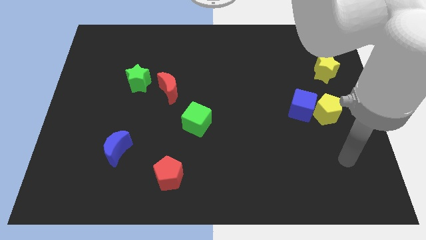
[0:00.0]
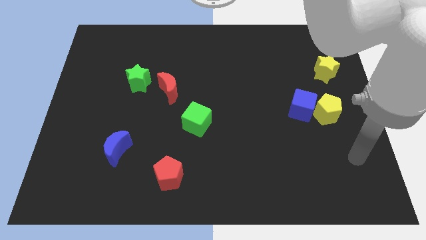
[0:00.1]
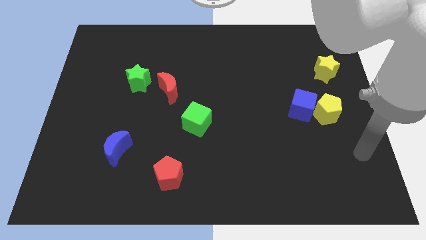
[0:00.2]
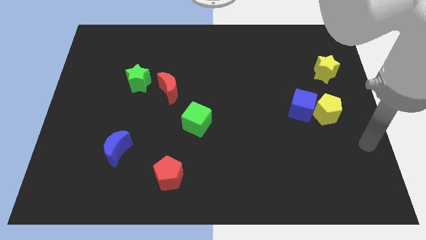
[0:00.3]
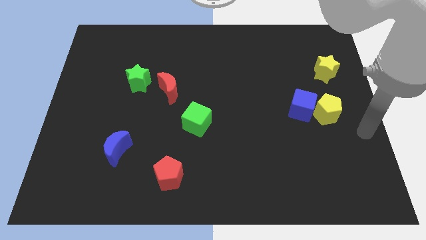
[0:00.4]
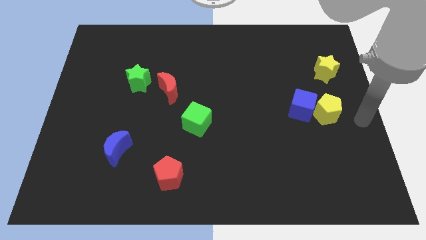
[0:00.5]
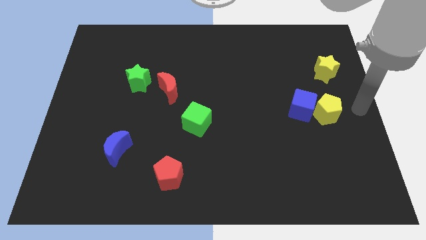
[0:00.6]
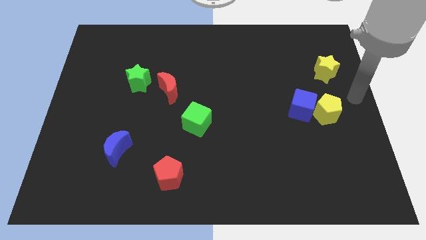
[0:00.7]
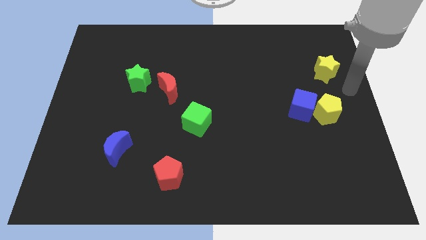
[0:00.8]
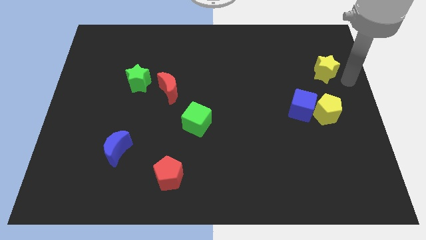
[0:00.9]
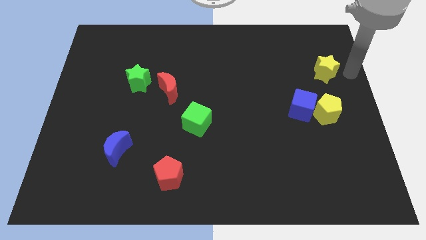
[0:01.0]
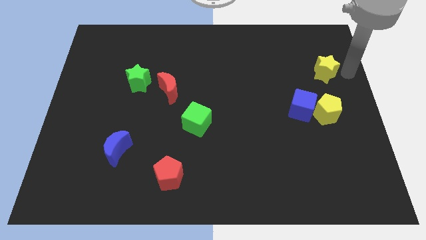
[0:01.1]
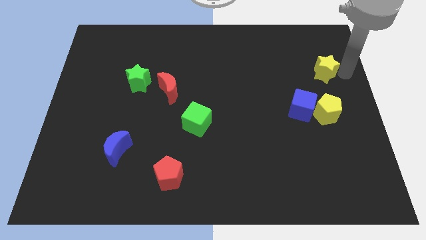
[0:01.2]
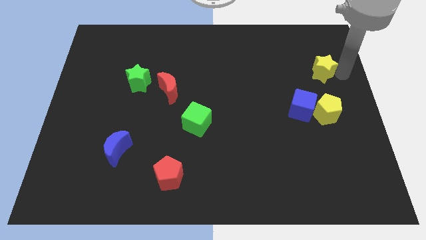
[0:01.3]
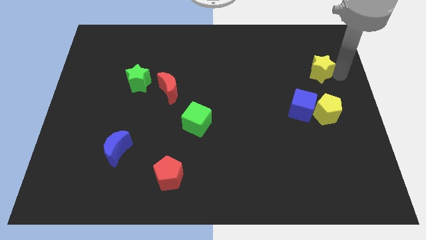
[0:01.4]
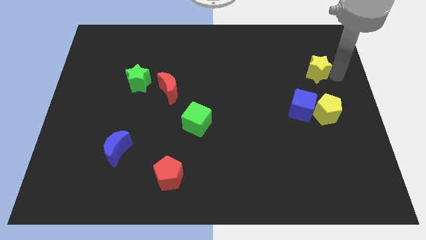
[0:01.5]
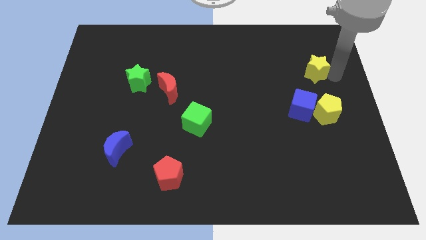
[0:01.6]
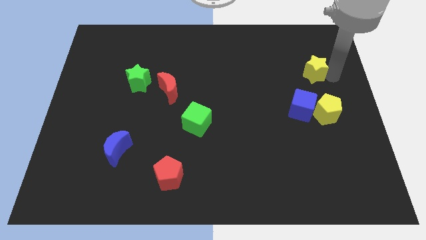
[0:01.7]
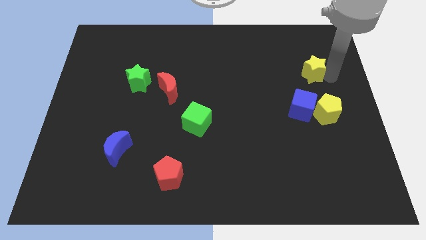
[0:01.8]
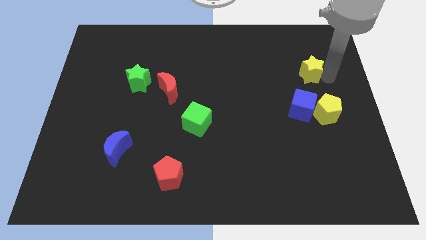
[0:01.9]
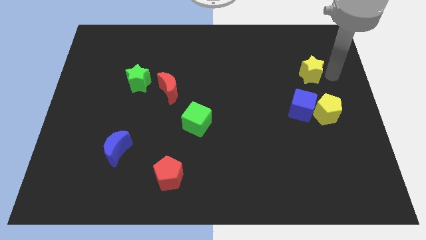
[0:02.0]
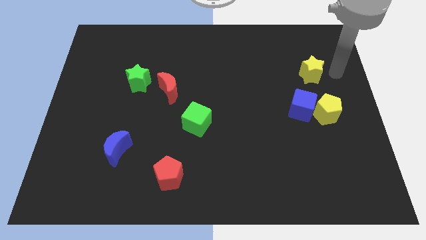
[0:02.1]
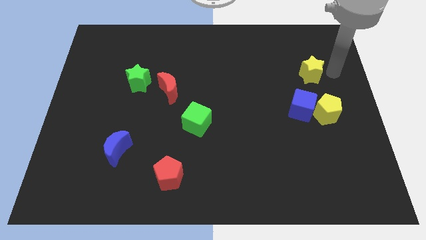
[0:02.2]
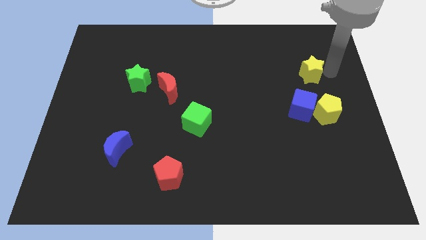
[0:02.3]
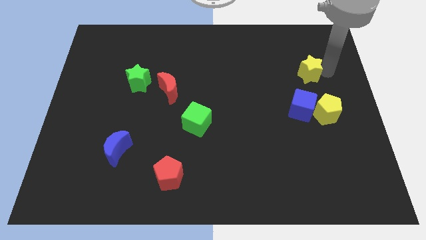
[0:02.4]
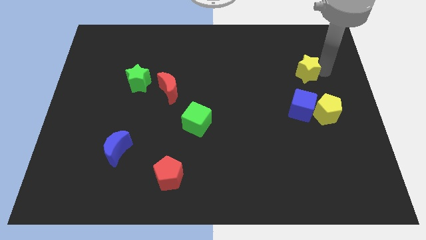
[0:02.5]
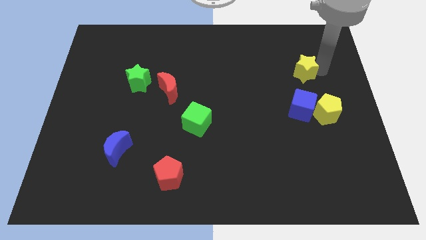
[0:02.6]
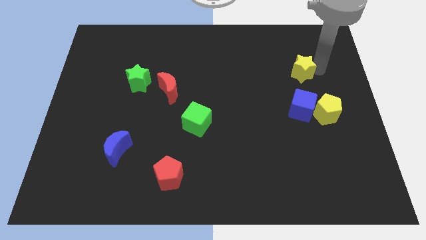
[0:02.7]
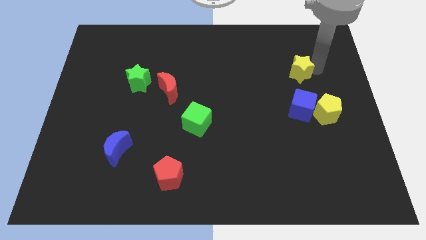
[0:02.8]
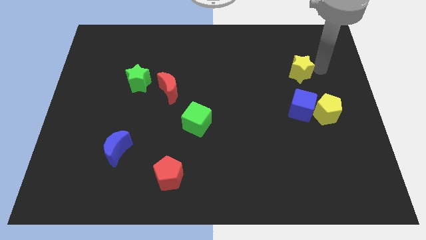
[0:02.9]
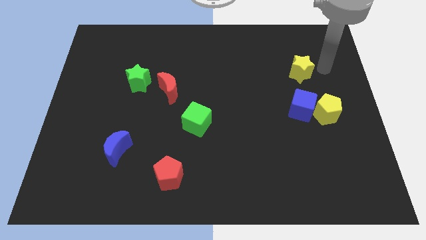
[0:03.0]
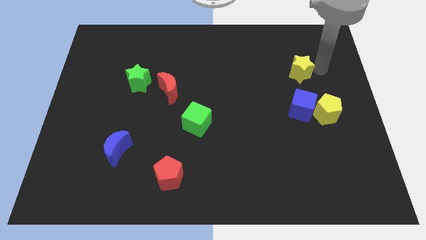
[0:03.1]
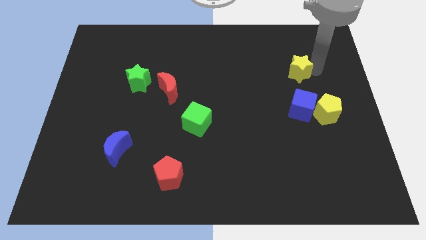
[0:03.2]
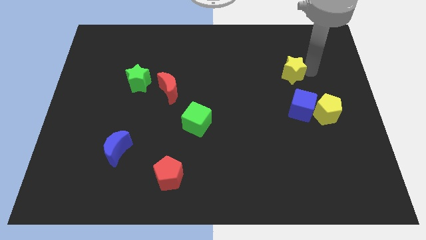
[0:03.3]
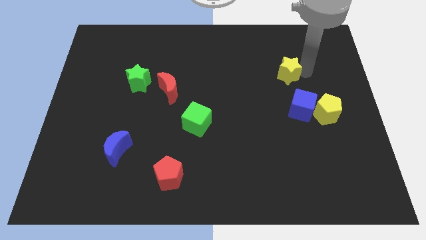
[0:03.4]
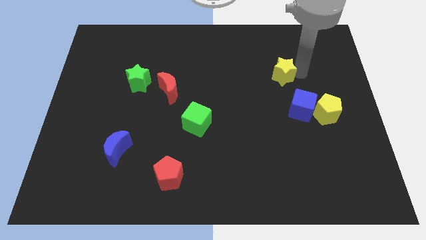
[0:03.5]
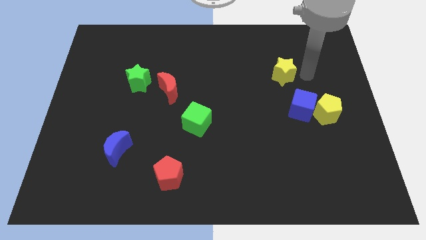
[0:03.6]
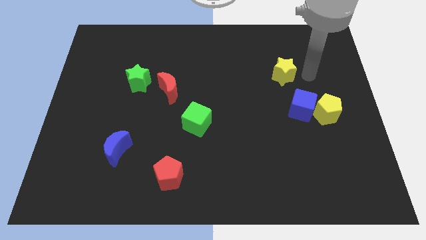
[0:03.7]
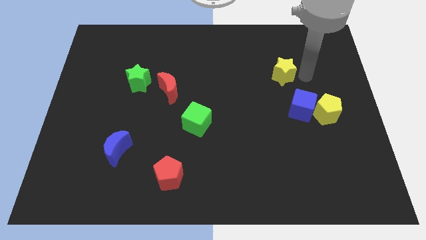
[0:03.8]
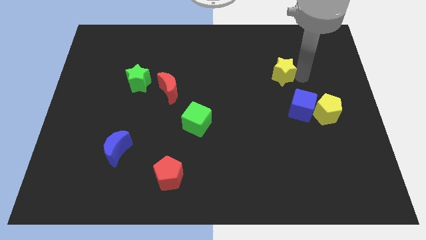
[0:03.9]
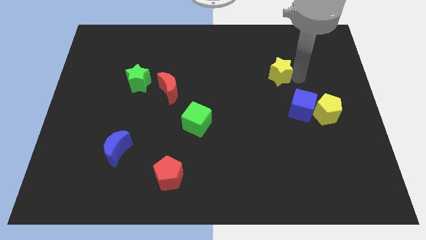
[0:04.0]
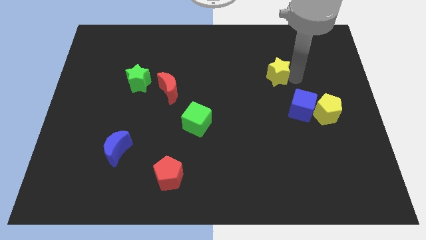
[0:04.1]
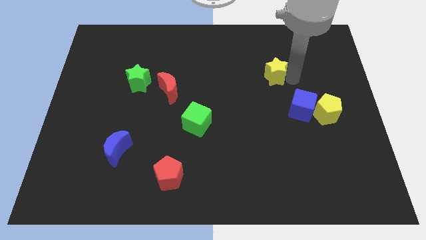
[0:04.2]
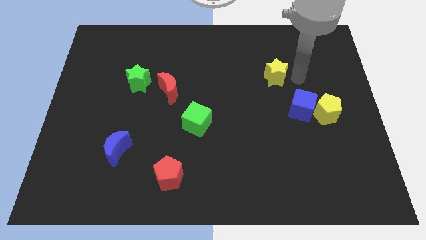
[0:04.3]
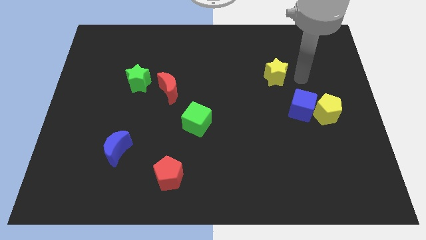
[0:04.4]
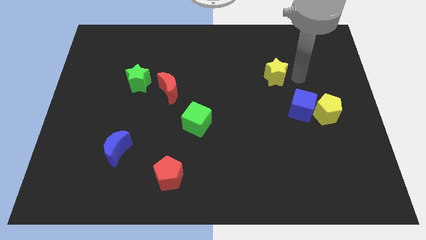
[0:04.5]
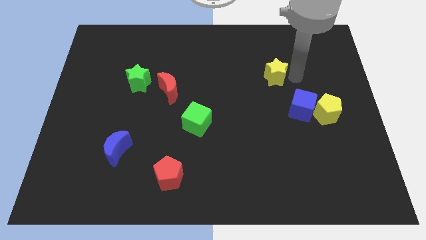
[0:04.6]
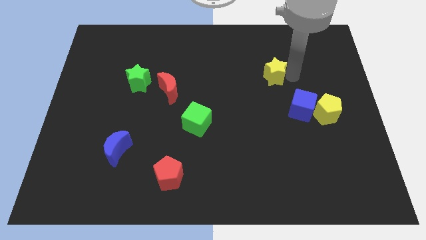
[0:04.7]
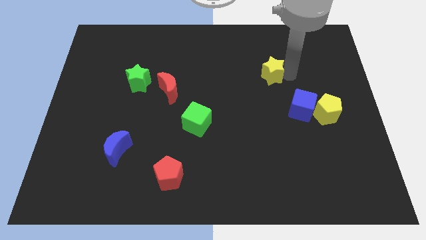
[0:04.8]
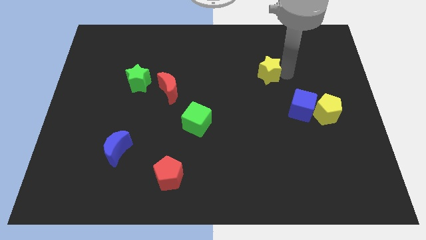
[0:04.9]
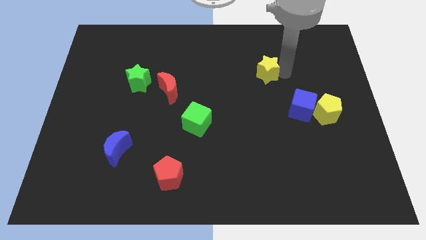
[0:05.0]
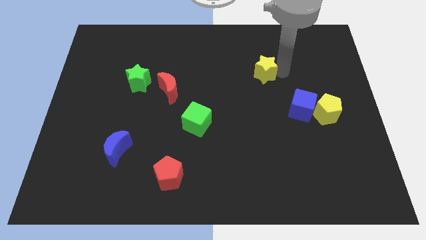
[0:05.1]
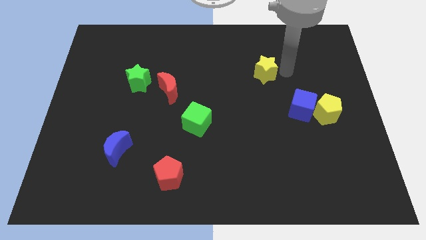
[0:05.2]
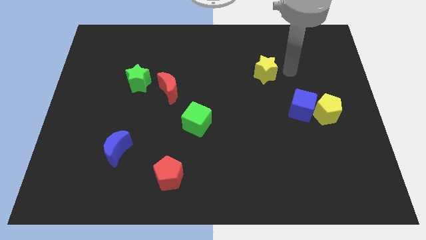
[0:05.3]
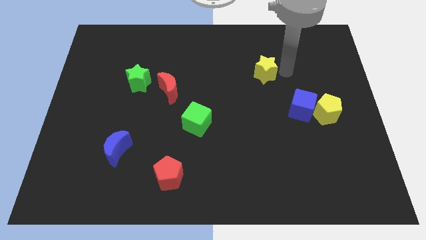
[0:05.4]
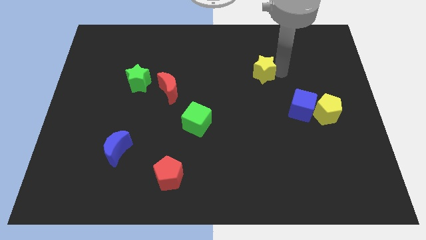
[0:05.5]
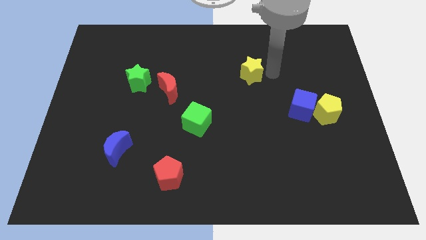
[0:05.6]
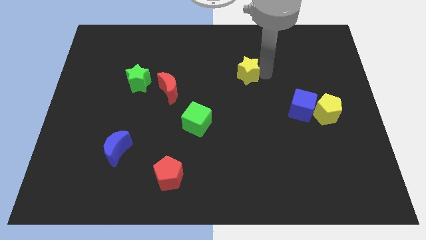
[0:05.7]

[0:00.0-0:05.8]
slide the yellow star left

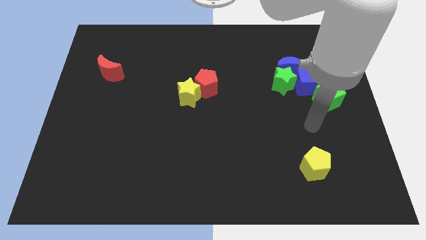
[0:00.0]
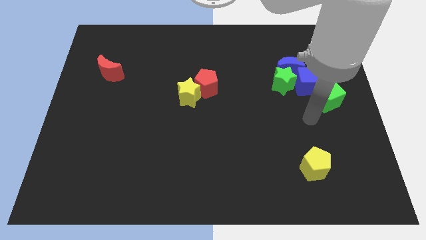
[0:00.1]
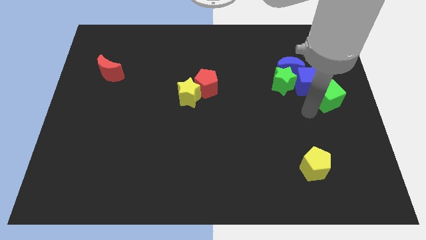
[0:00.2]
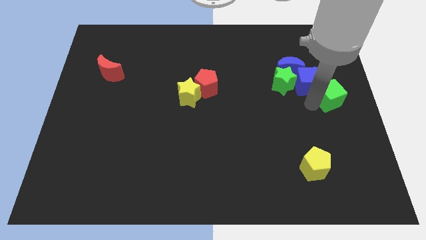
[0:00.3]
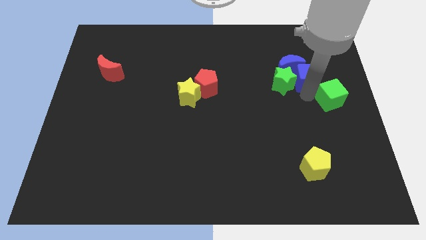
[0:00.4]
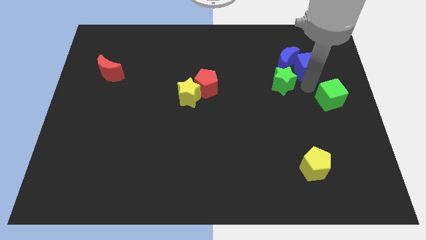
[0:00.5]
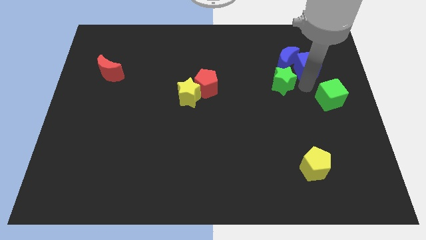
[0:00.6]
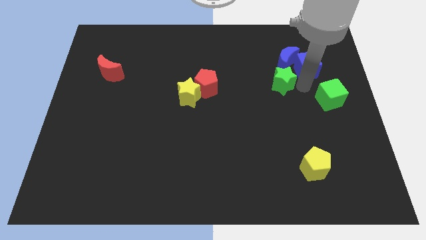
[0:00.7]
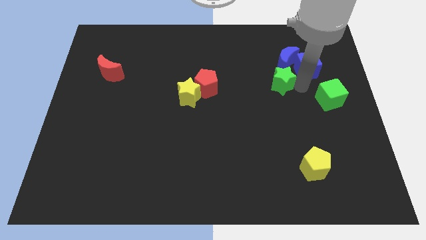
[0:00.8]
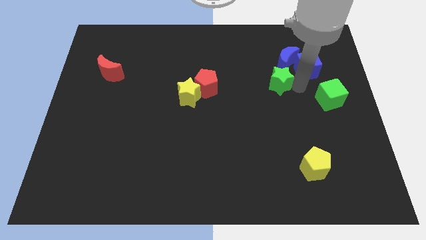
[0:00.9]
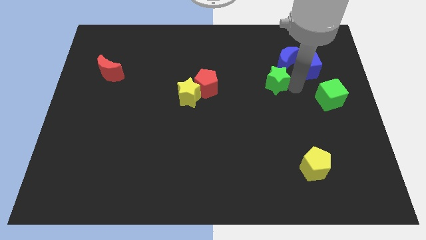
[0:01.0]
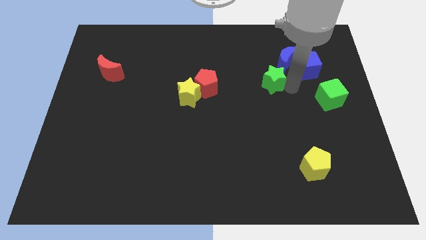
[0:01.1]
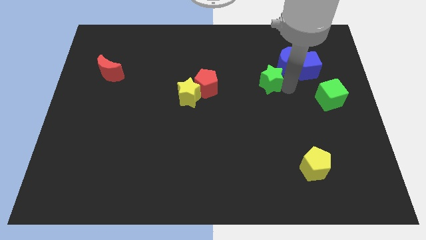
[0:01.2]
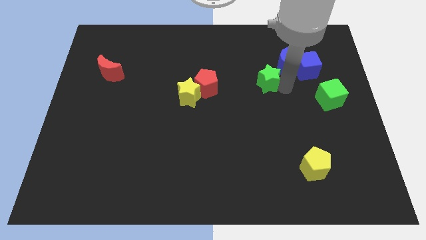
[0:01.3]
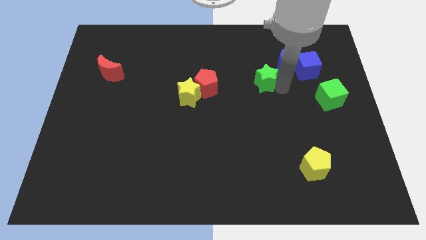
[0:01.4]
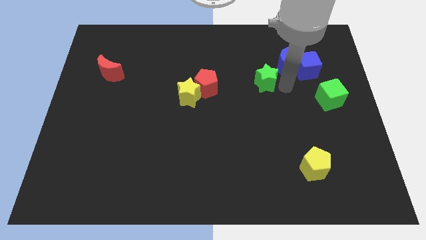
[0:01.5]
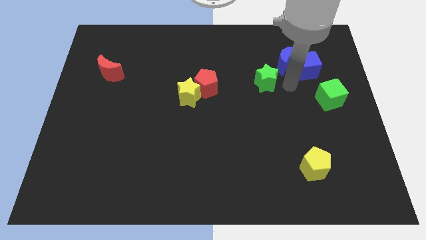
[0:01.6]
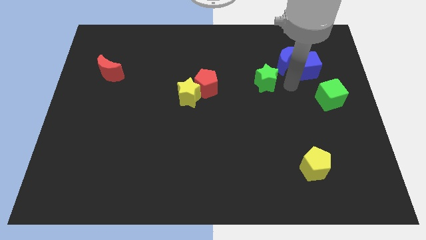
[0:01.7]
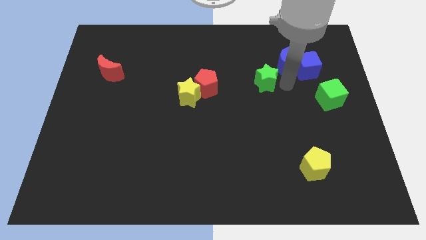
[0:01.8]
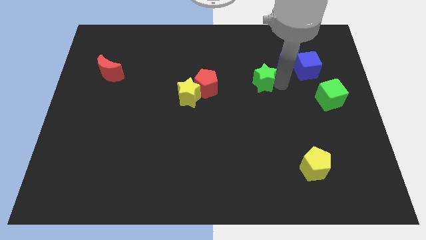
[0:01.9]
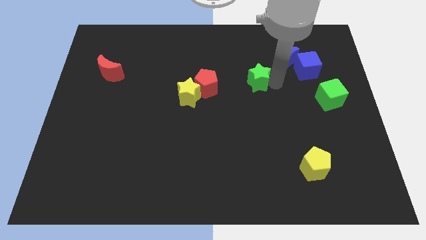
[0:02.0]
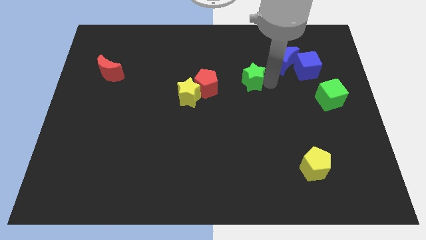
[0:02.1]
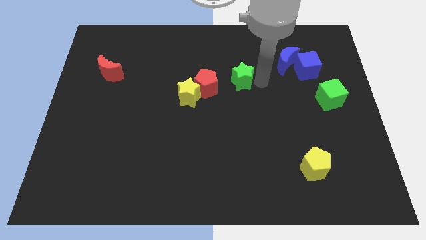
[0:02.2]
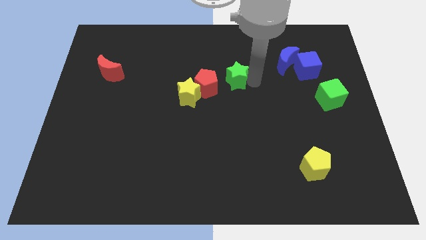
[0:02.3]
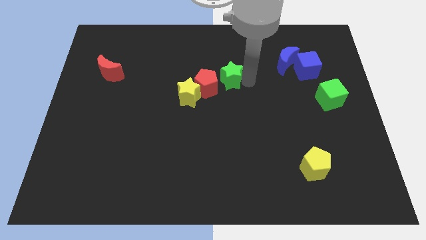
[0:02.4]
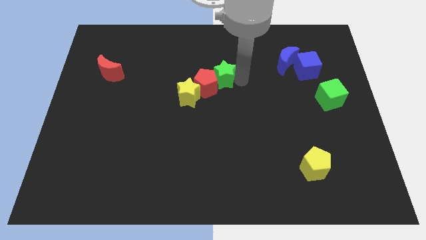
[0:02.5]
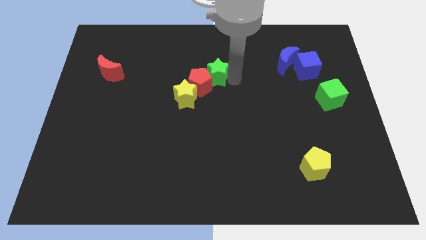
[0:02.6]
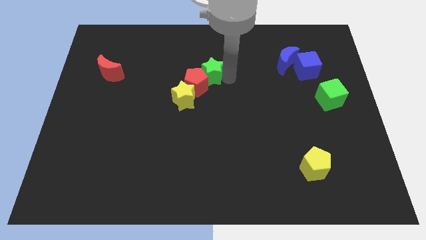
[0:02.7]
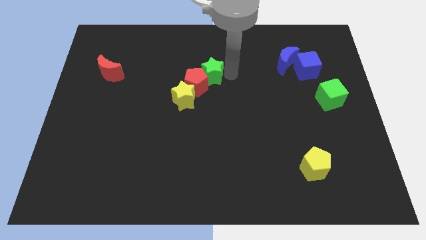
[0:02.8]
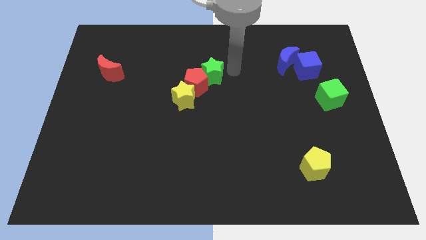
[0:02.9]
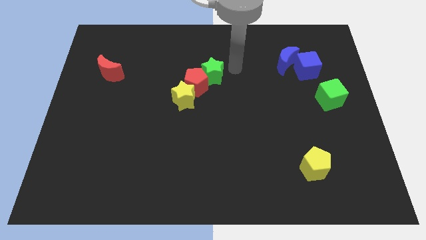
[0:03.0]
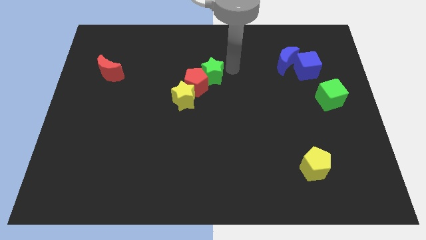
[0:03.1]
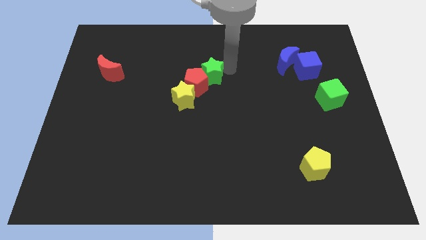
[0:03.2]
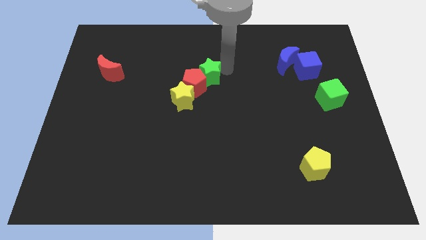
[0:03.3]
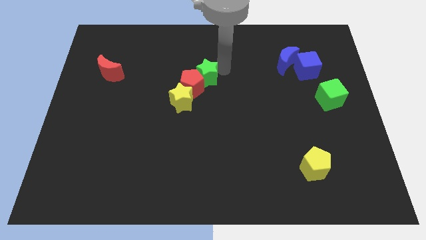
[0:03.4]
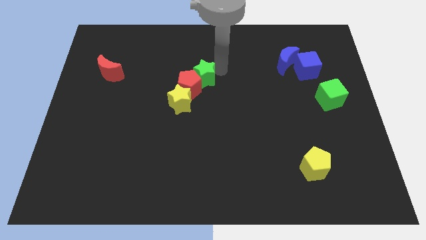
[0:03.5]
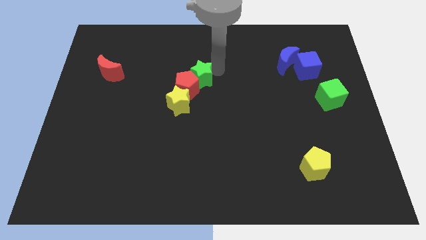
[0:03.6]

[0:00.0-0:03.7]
push the green star to the left
